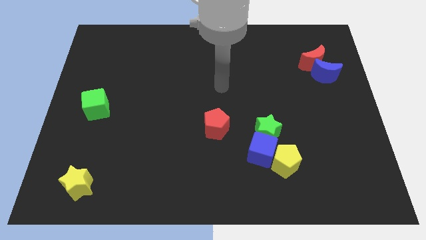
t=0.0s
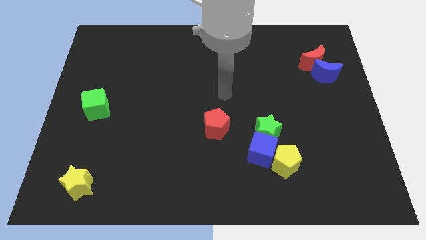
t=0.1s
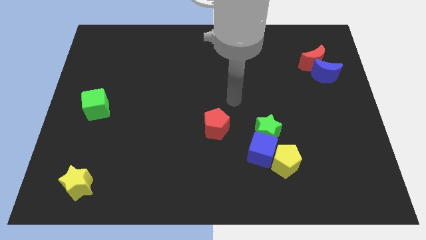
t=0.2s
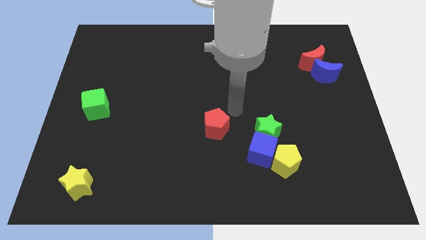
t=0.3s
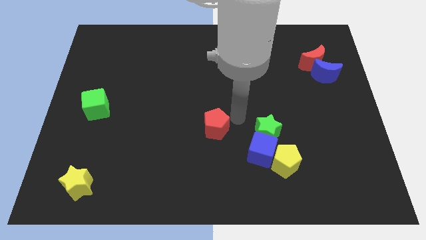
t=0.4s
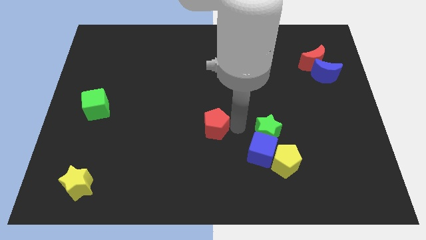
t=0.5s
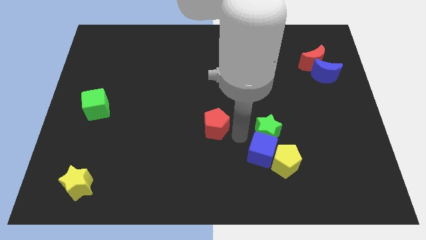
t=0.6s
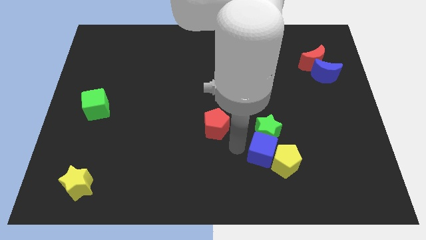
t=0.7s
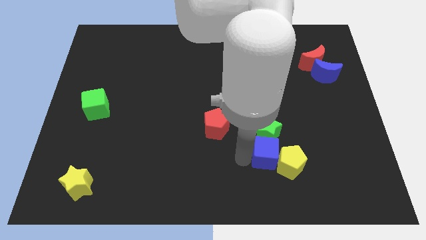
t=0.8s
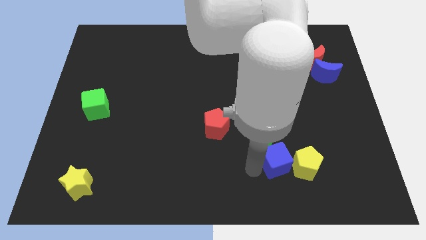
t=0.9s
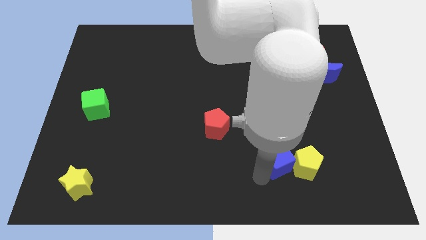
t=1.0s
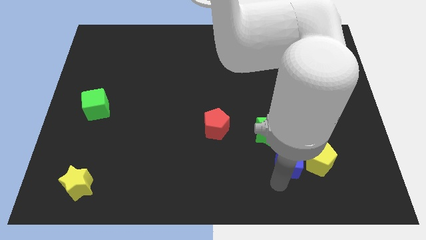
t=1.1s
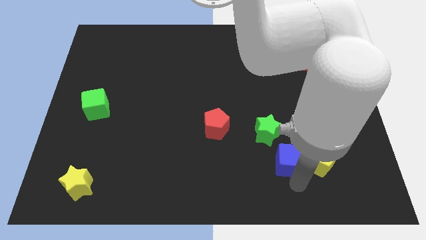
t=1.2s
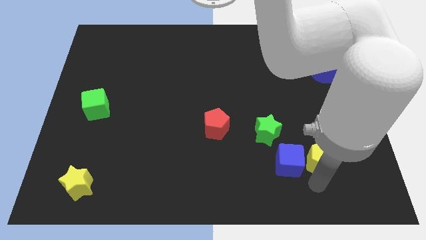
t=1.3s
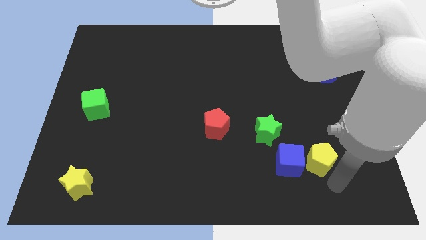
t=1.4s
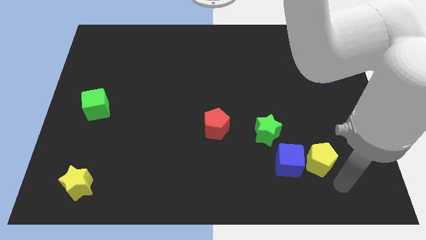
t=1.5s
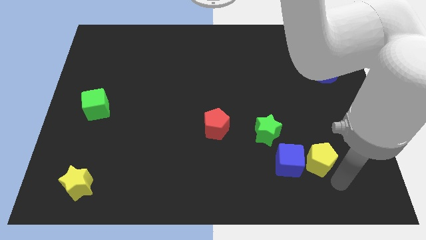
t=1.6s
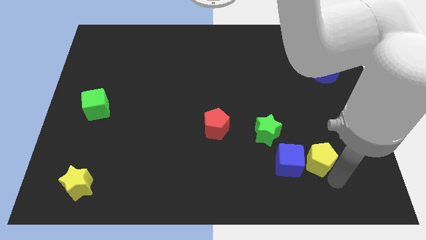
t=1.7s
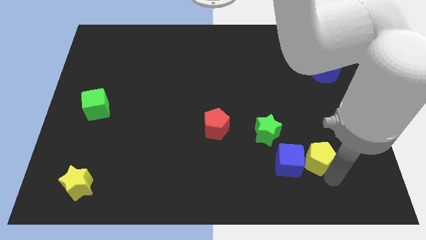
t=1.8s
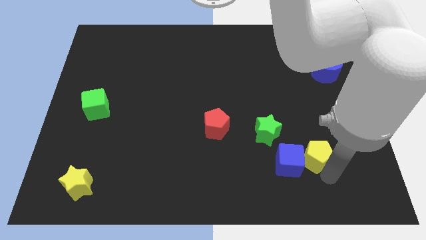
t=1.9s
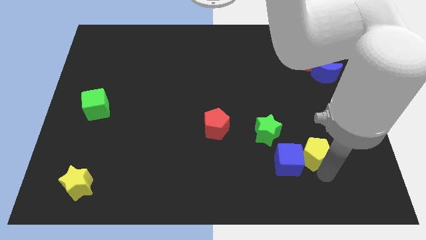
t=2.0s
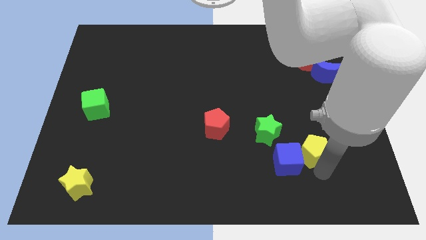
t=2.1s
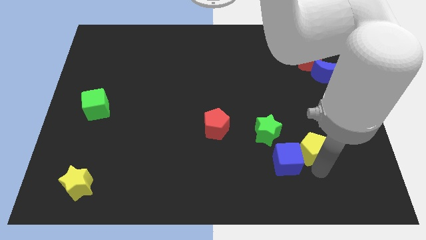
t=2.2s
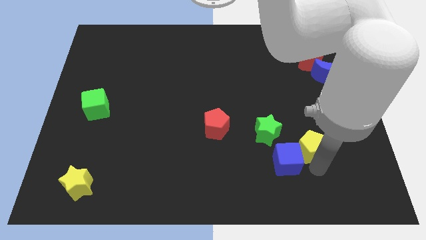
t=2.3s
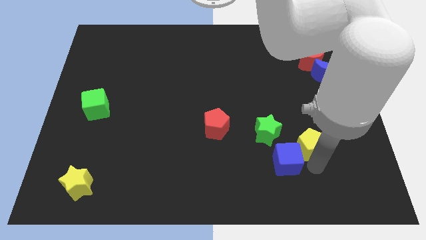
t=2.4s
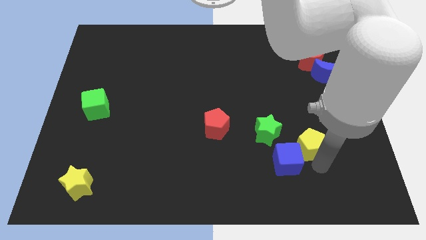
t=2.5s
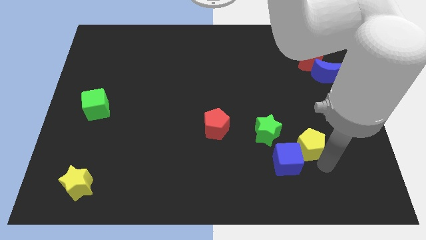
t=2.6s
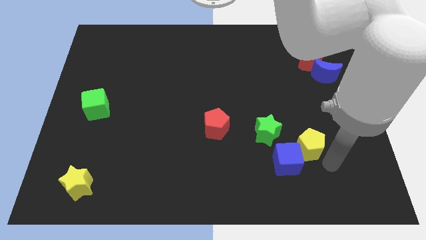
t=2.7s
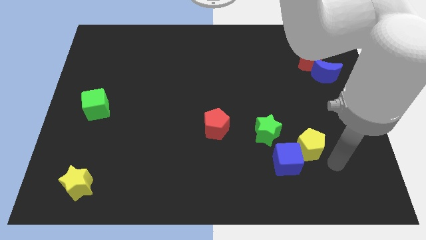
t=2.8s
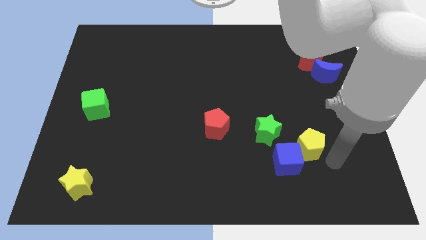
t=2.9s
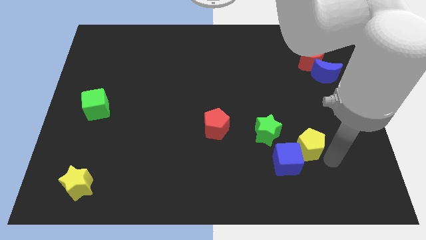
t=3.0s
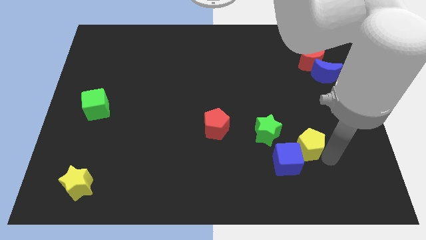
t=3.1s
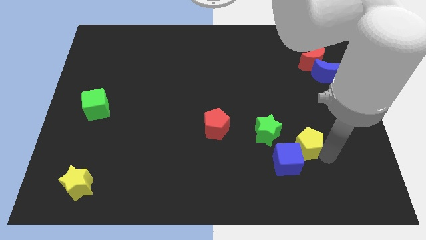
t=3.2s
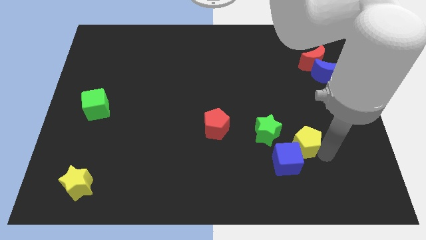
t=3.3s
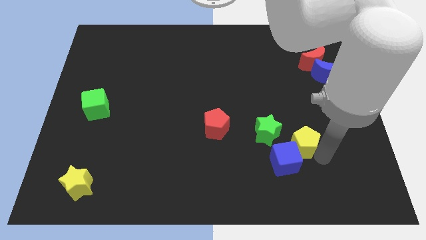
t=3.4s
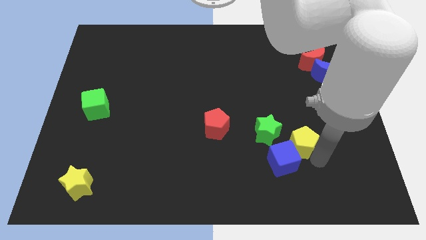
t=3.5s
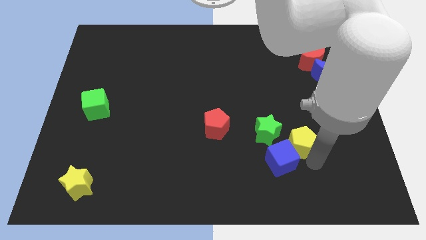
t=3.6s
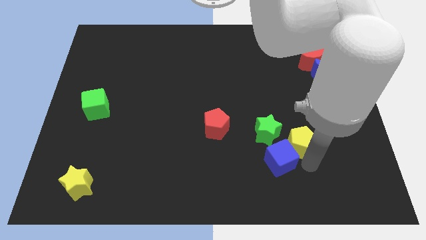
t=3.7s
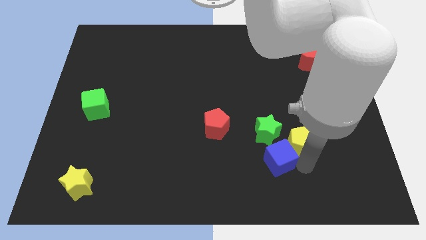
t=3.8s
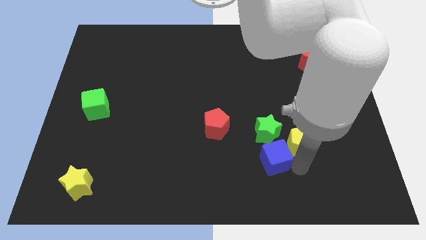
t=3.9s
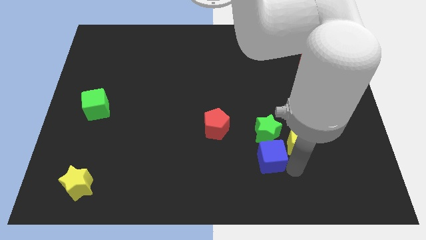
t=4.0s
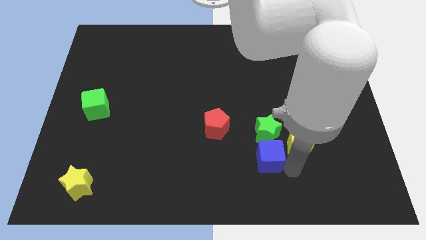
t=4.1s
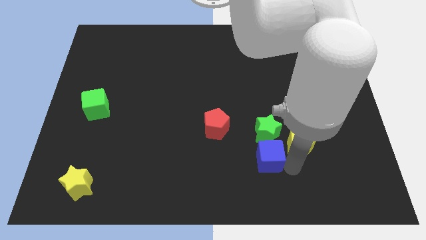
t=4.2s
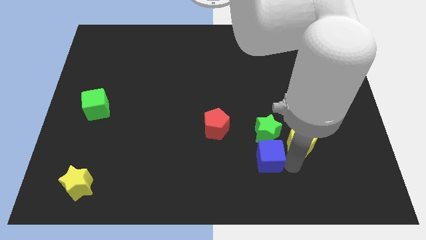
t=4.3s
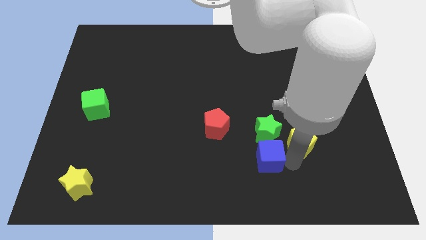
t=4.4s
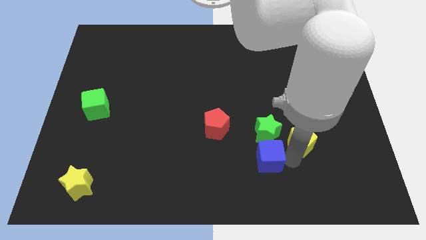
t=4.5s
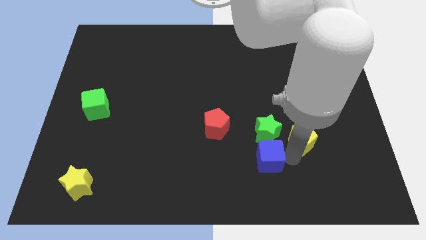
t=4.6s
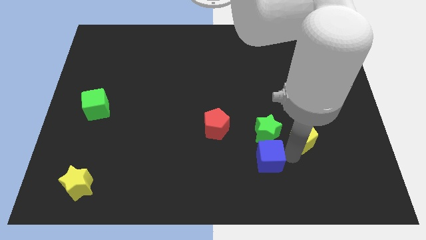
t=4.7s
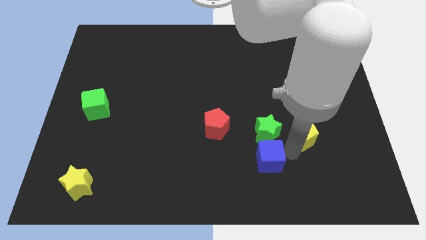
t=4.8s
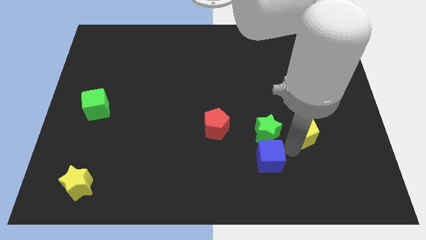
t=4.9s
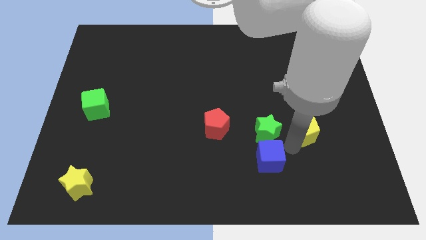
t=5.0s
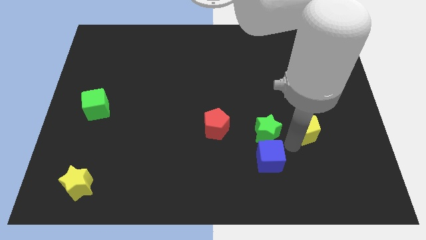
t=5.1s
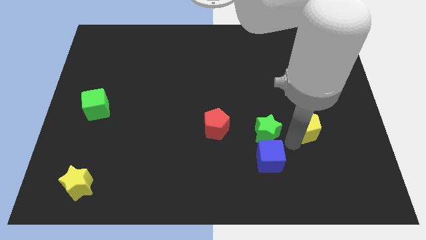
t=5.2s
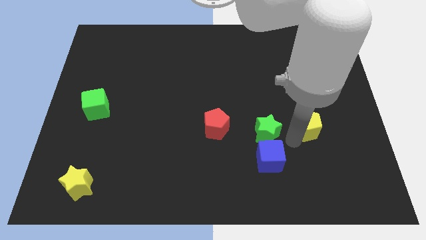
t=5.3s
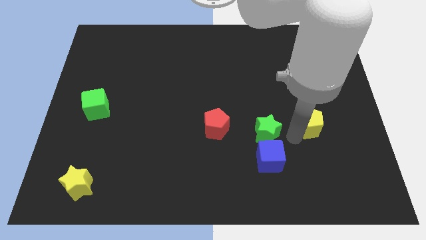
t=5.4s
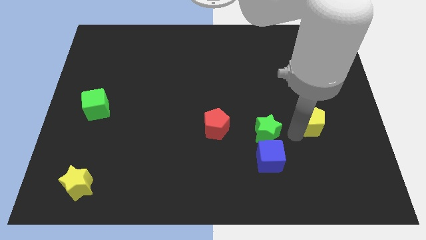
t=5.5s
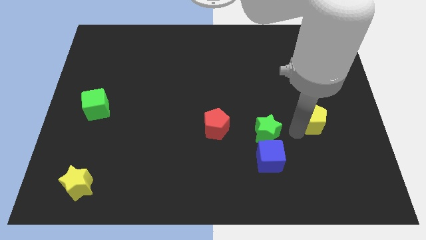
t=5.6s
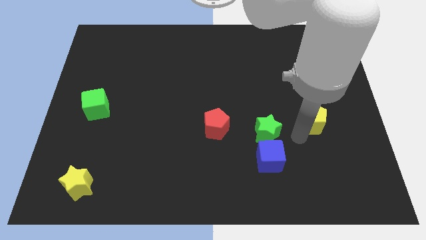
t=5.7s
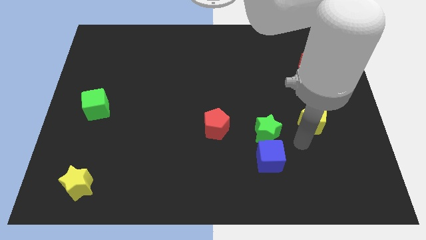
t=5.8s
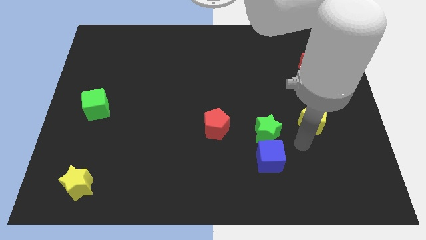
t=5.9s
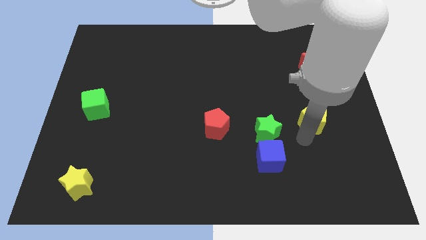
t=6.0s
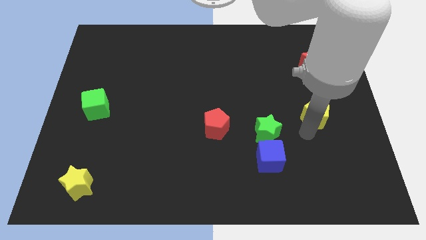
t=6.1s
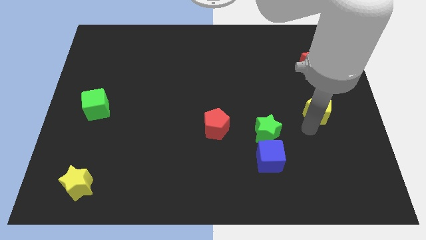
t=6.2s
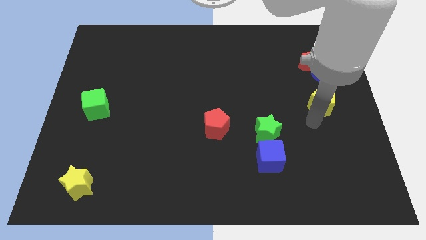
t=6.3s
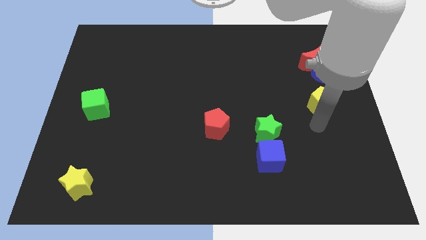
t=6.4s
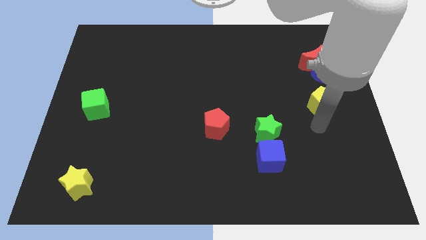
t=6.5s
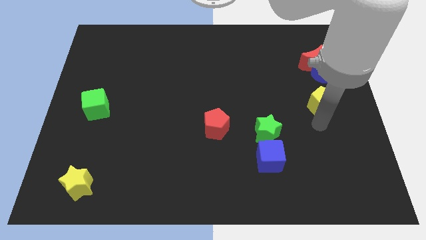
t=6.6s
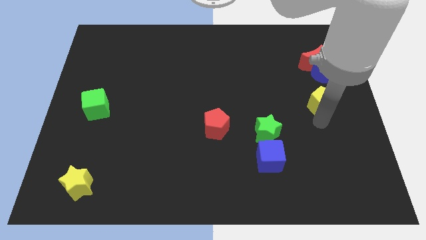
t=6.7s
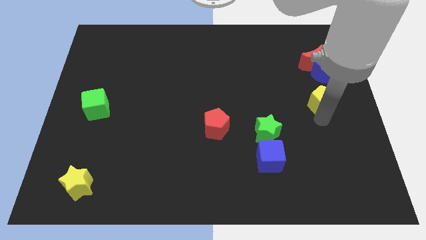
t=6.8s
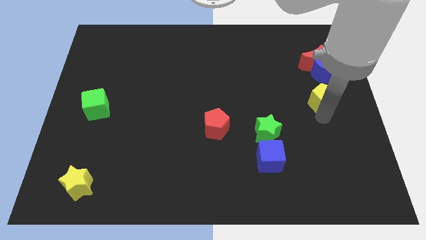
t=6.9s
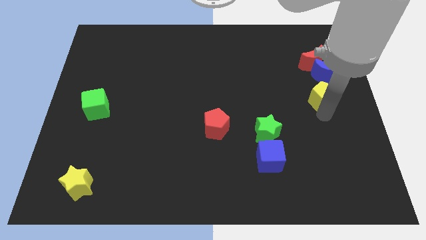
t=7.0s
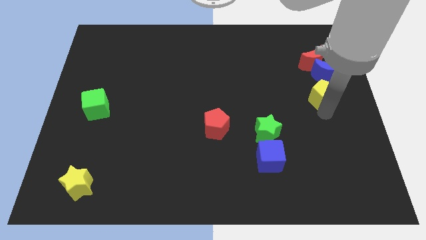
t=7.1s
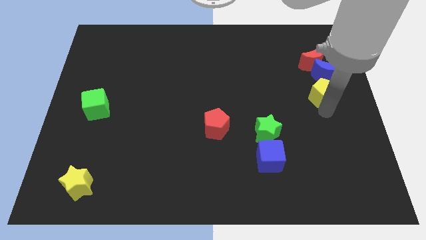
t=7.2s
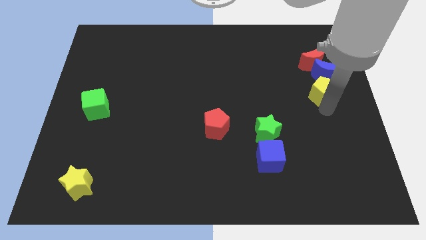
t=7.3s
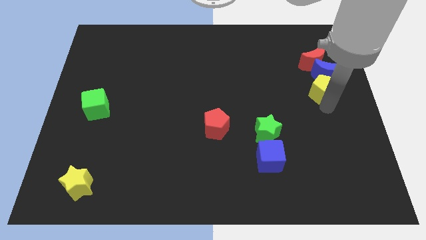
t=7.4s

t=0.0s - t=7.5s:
slide the yellow pentagon towards the blue moon
